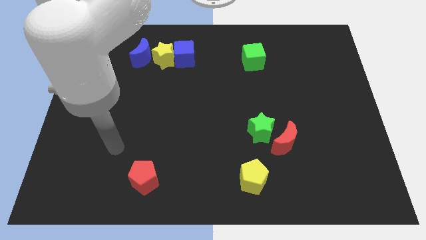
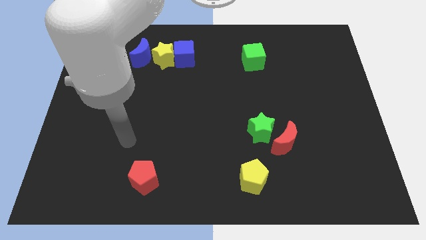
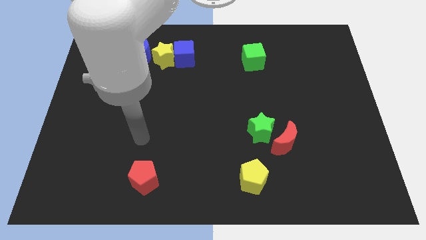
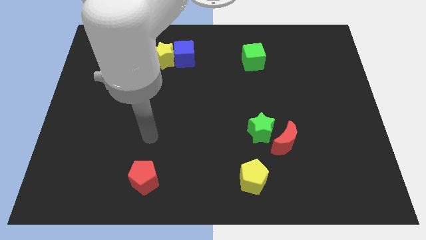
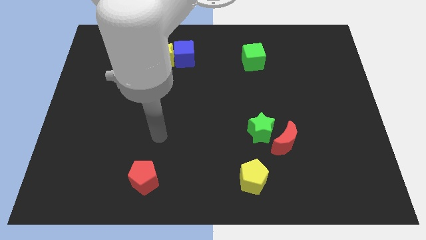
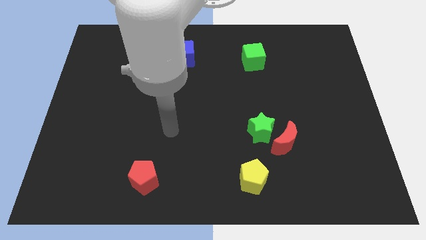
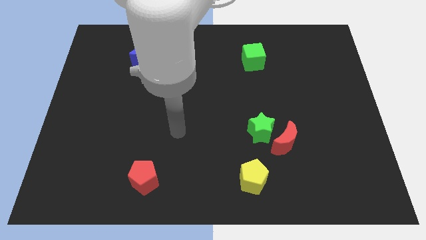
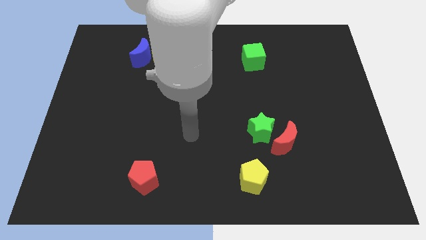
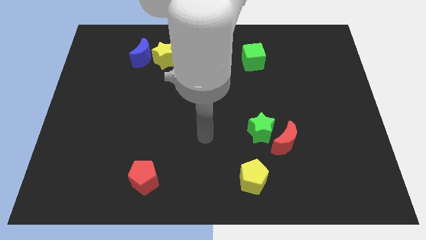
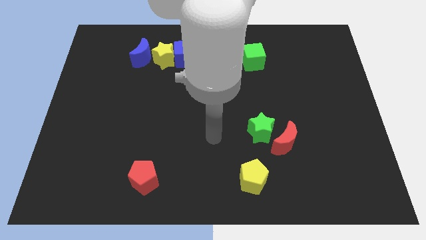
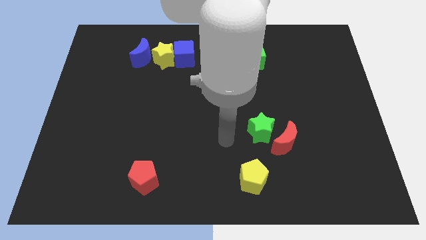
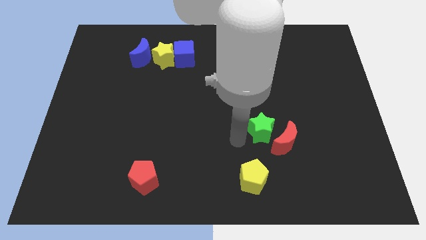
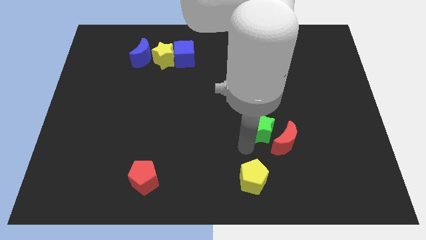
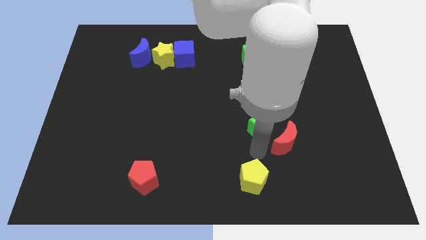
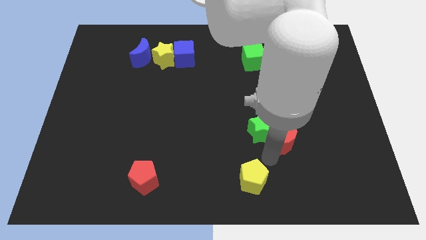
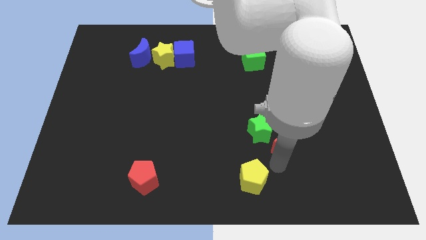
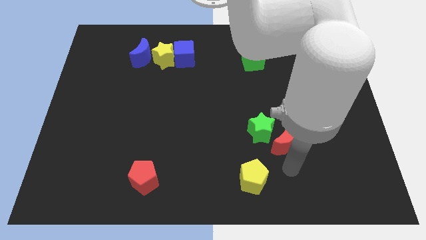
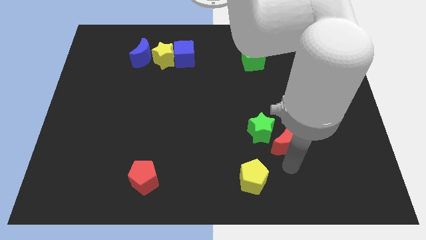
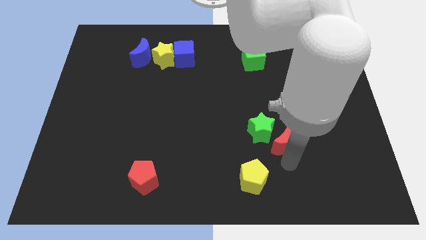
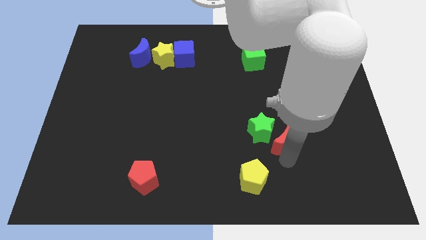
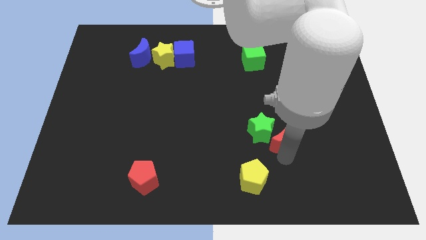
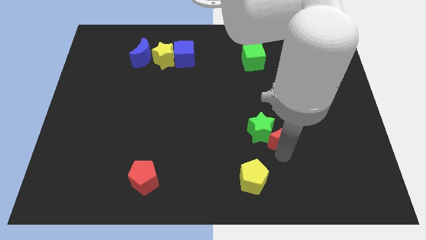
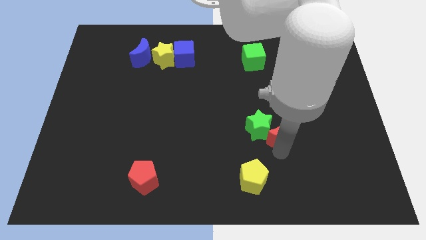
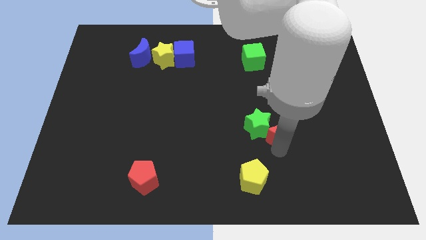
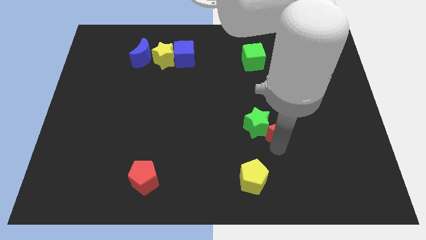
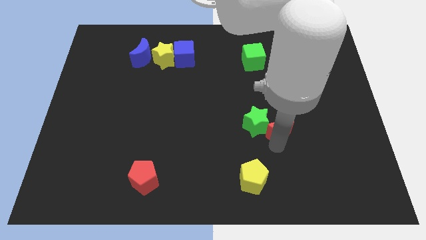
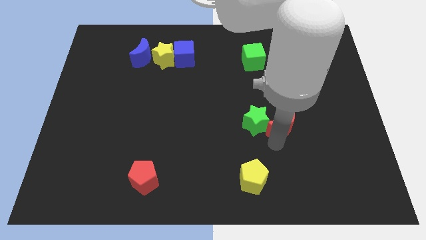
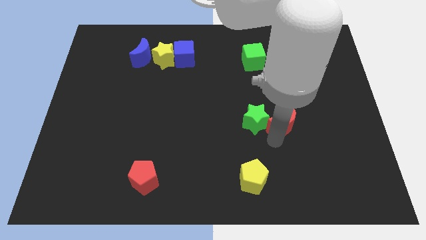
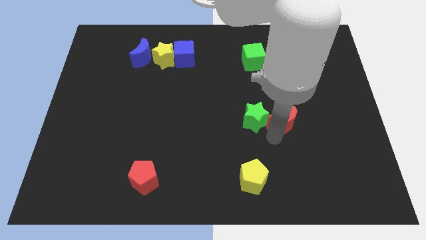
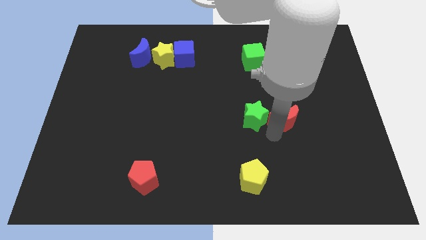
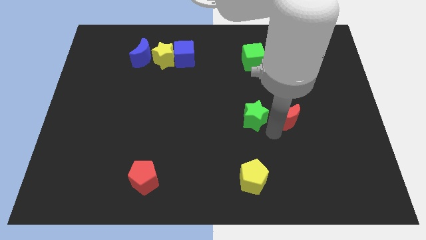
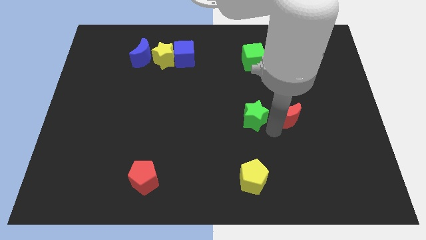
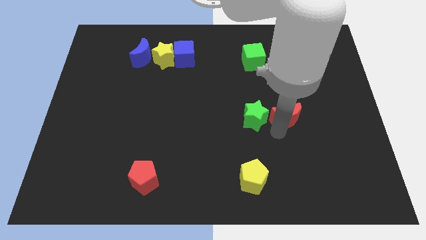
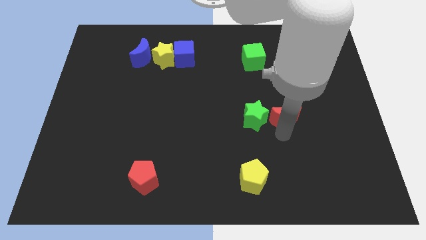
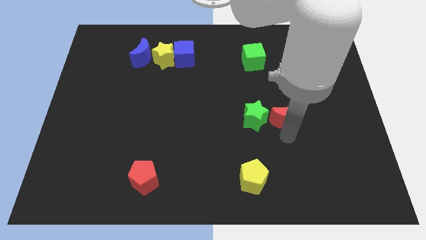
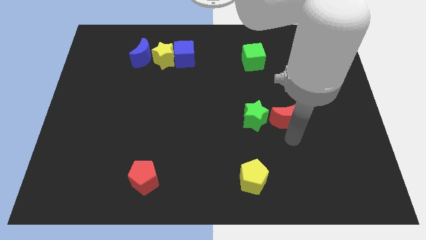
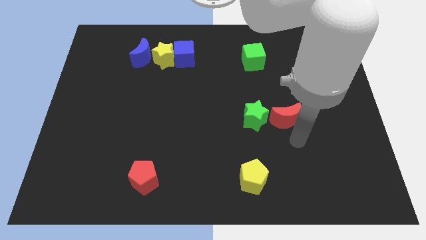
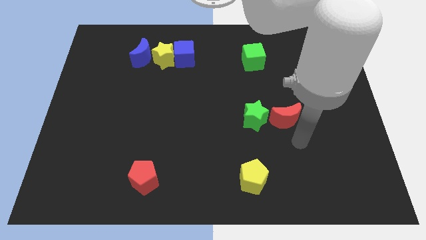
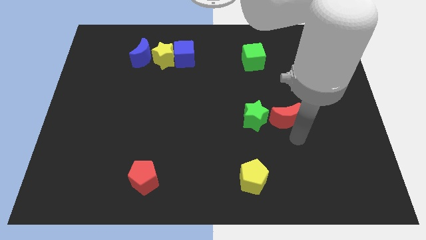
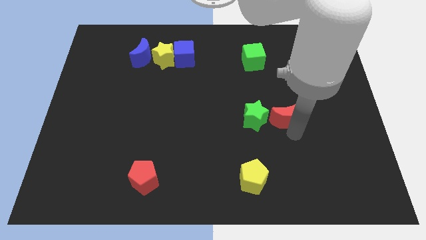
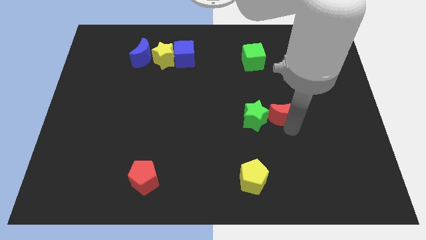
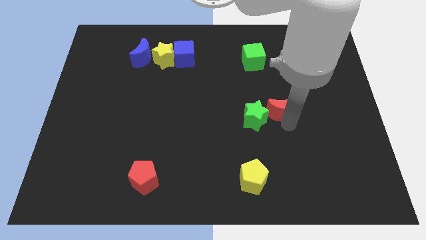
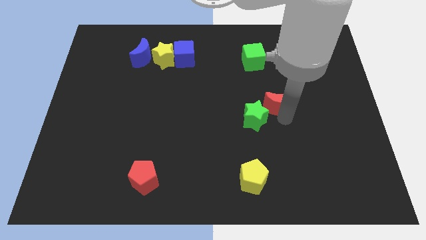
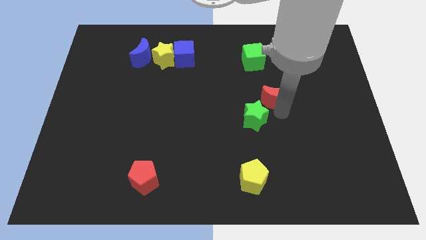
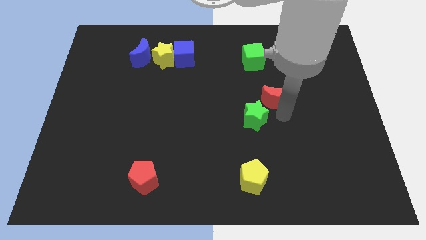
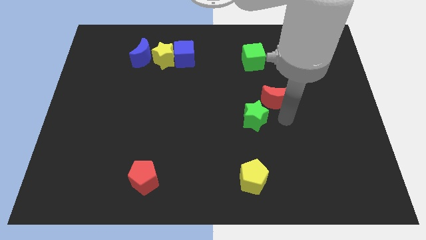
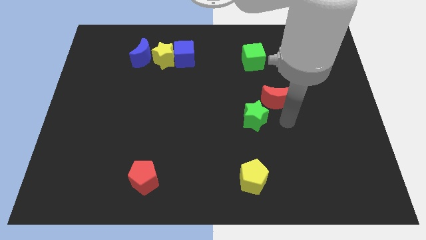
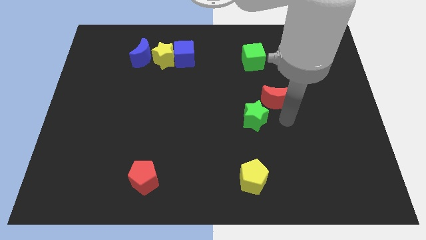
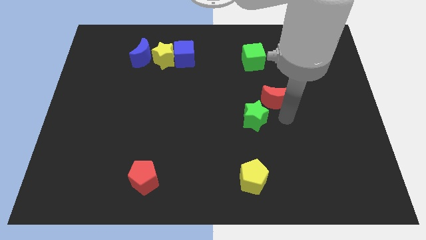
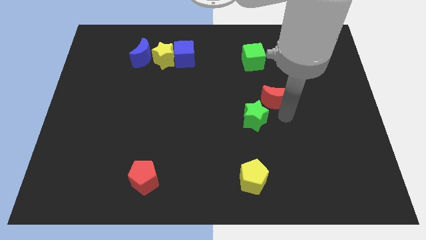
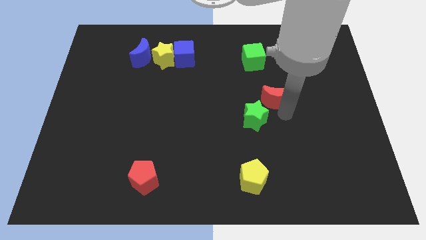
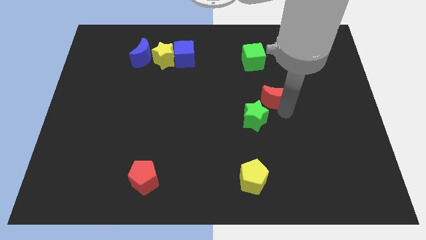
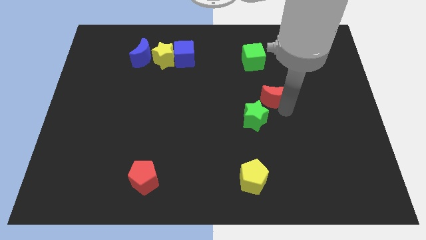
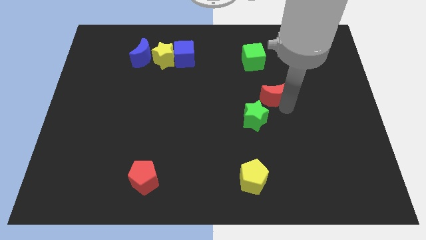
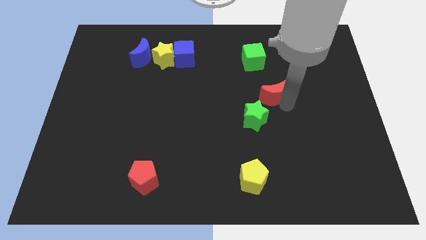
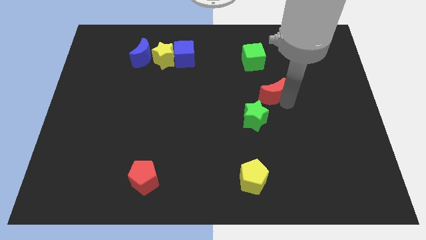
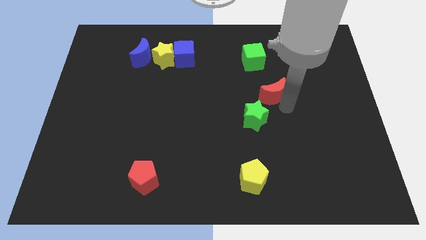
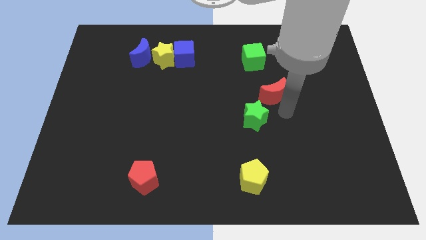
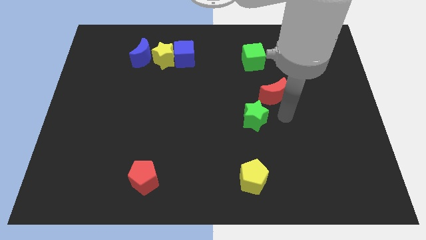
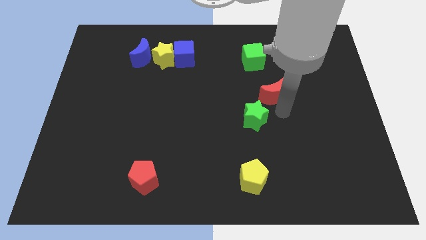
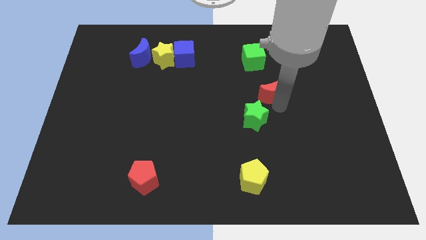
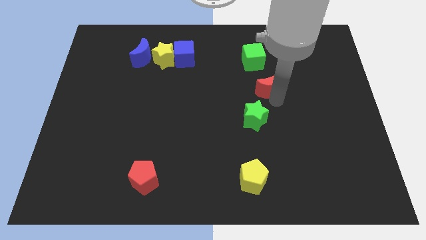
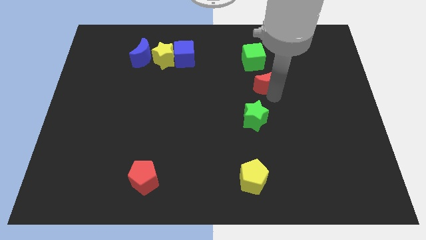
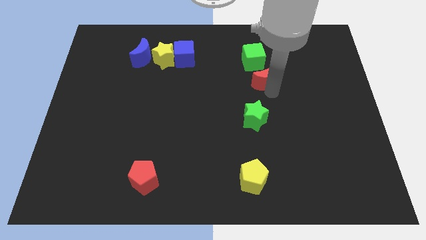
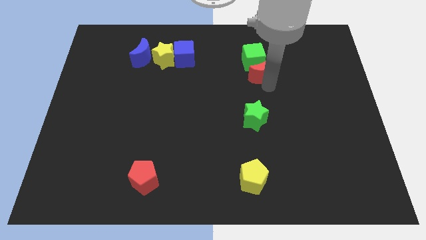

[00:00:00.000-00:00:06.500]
slide the red moon next to the green cube

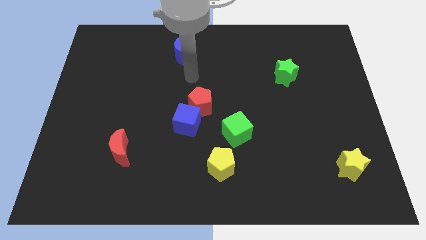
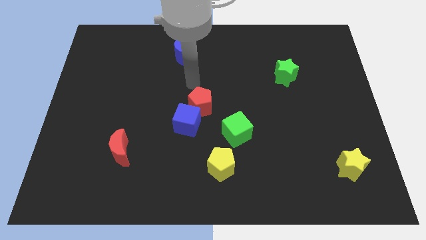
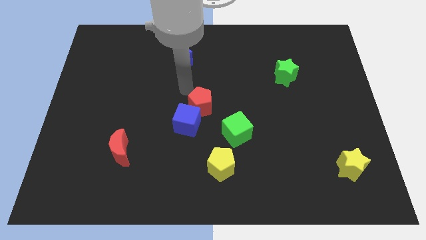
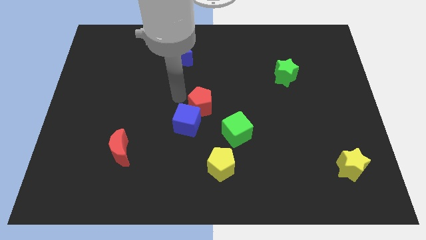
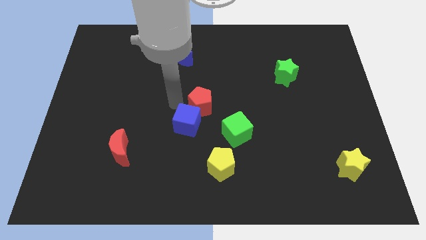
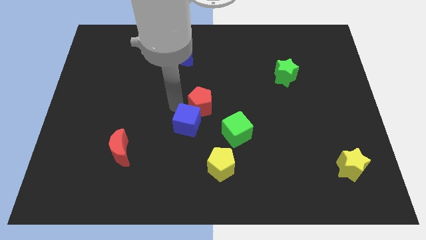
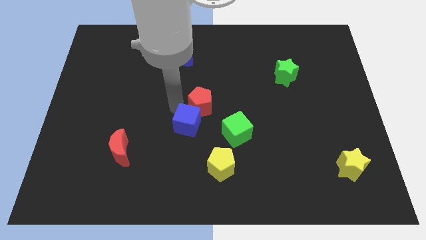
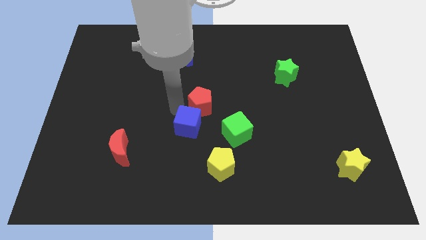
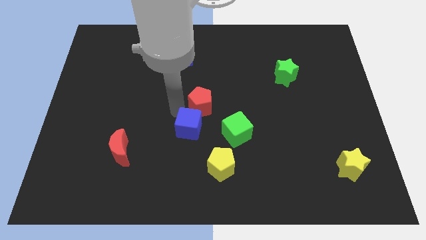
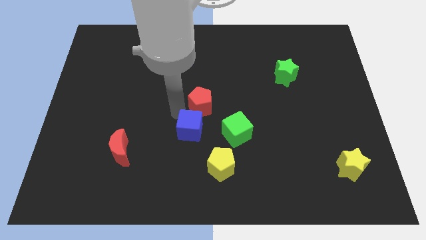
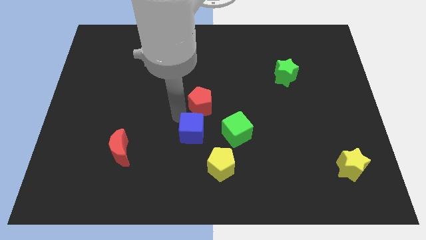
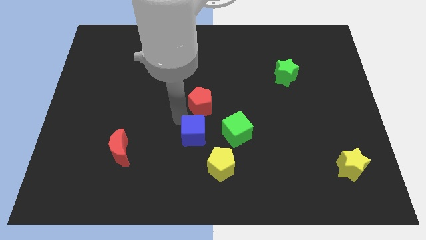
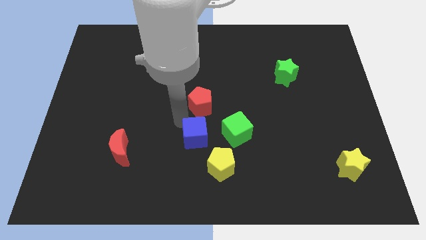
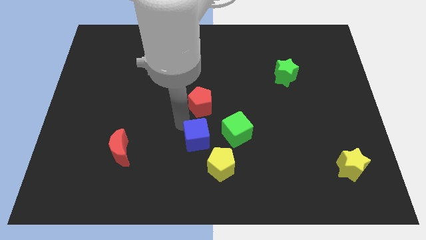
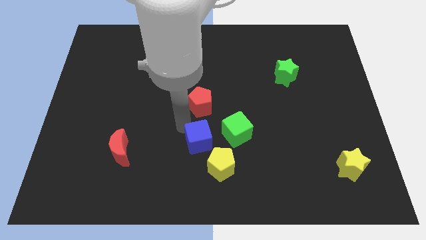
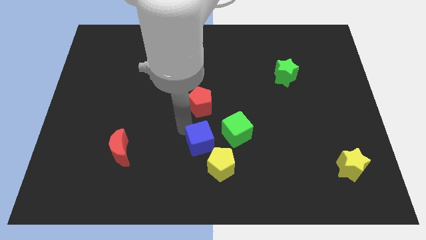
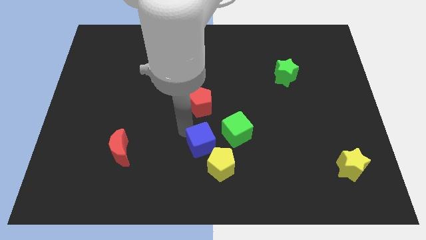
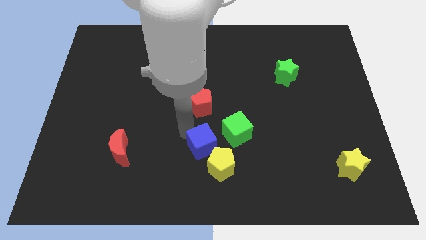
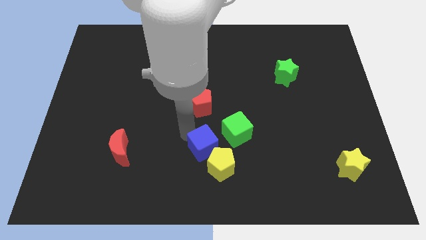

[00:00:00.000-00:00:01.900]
move the blue cube towards the yellow pentagon
